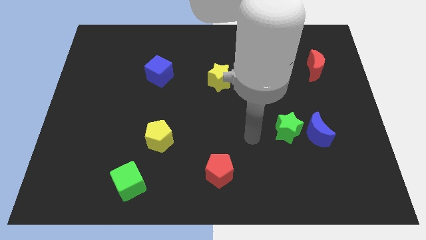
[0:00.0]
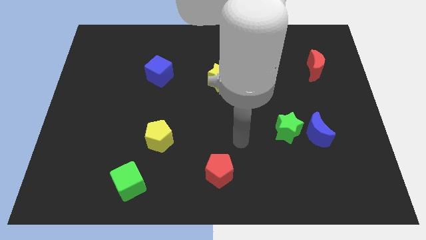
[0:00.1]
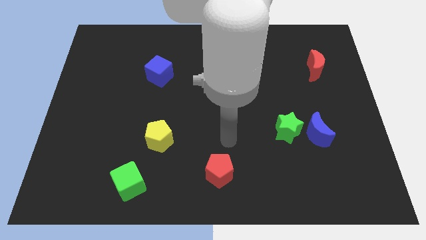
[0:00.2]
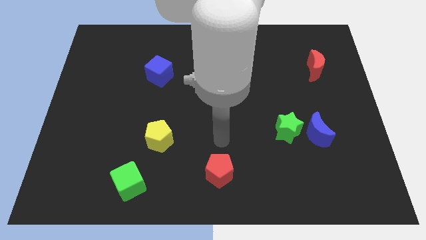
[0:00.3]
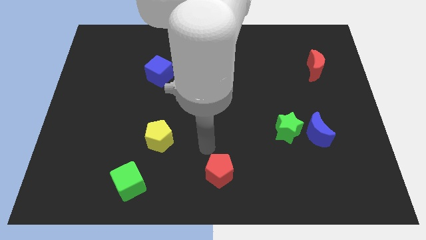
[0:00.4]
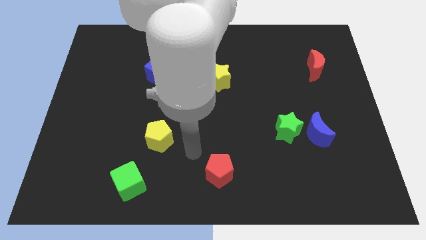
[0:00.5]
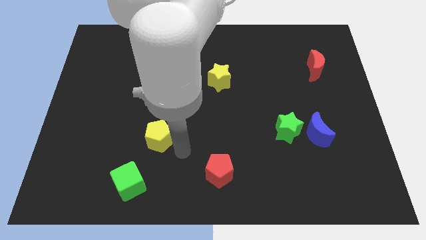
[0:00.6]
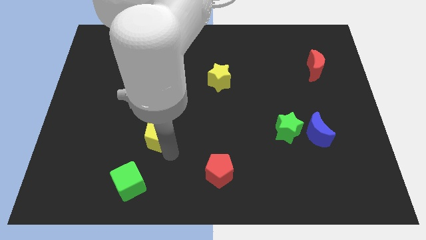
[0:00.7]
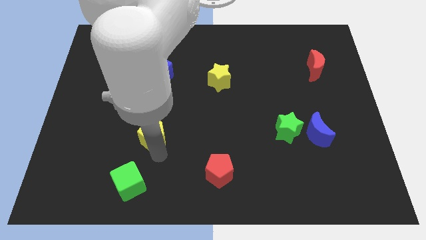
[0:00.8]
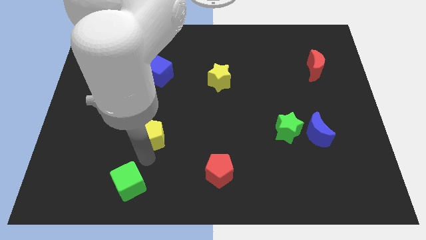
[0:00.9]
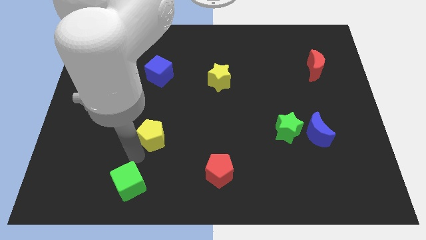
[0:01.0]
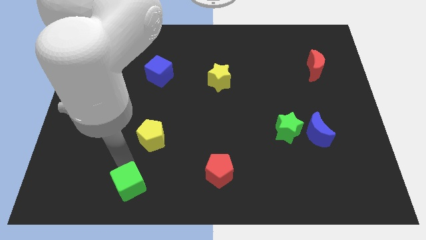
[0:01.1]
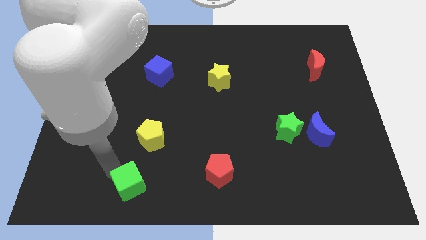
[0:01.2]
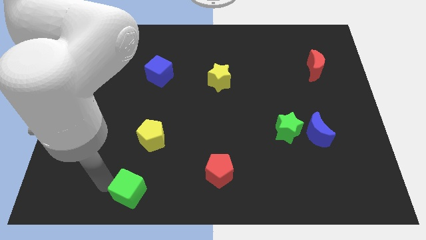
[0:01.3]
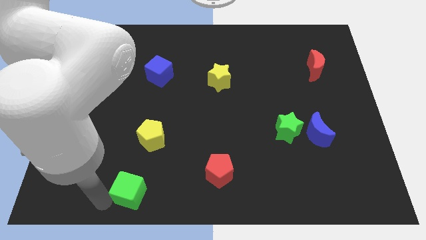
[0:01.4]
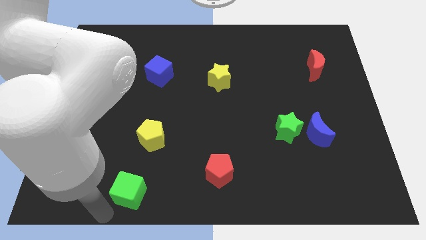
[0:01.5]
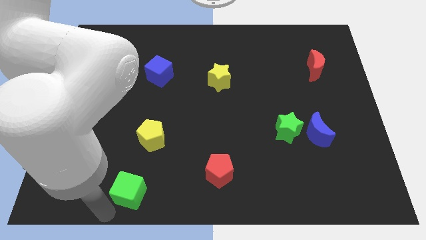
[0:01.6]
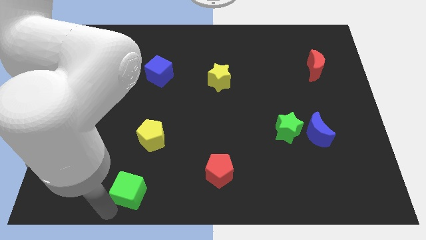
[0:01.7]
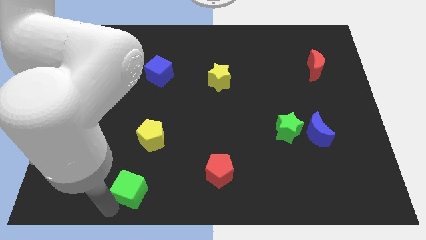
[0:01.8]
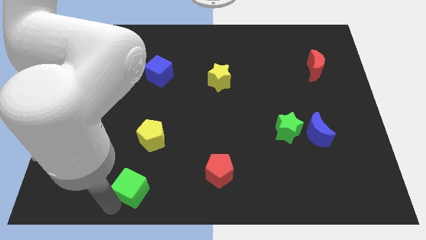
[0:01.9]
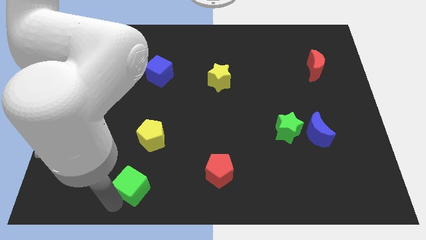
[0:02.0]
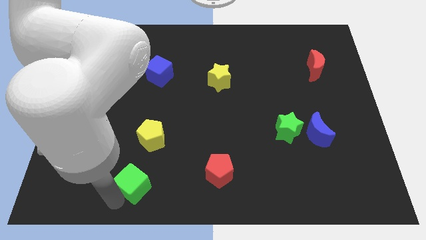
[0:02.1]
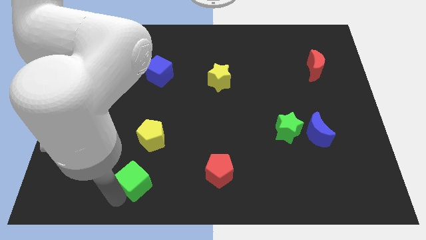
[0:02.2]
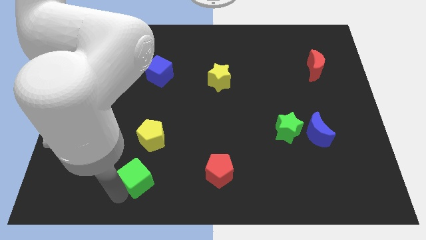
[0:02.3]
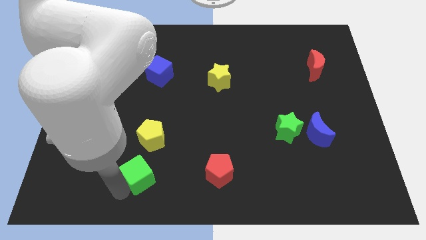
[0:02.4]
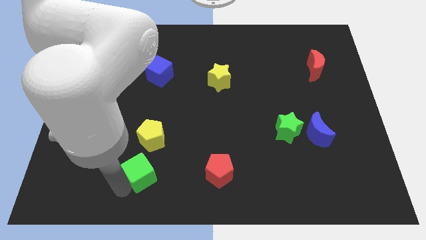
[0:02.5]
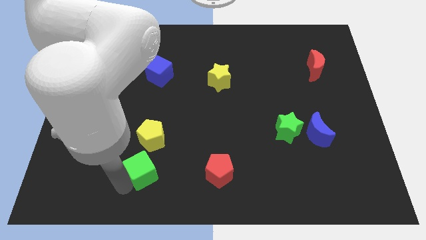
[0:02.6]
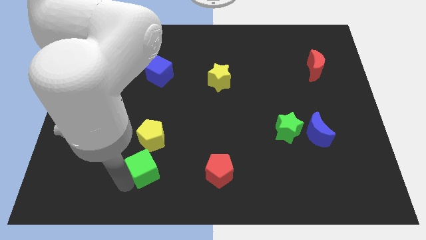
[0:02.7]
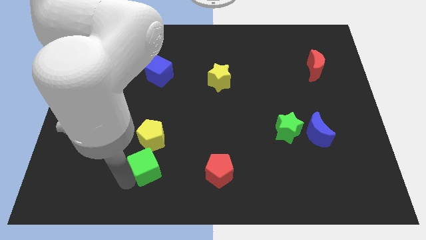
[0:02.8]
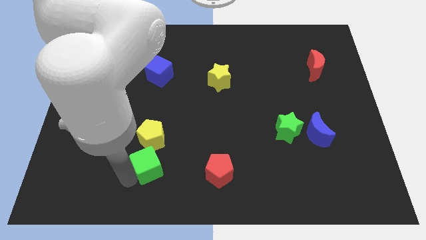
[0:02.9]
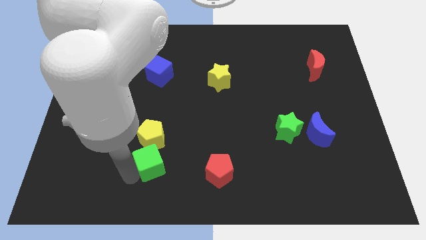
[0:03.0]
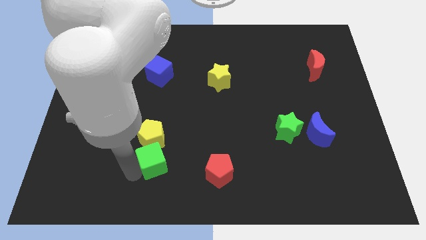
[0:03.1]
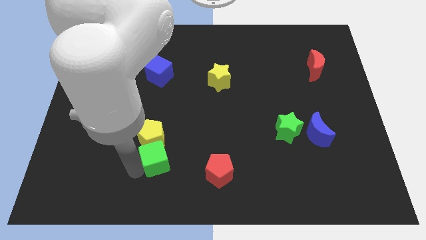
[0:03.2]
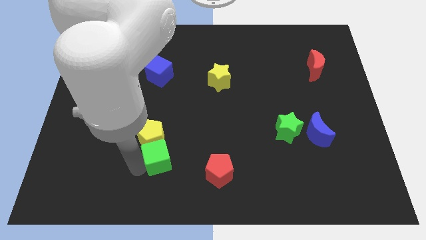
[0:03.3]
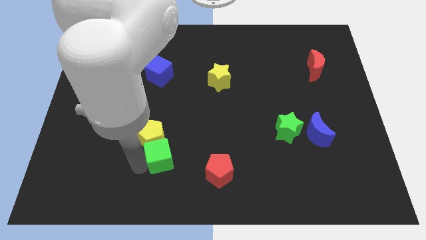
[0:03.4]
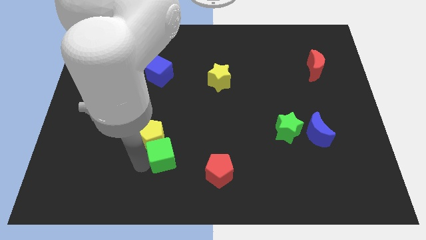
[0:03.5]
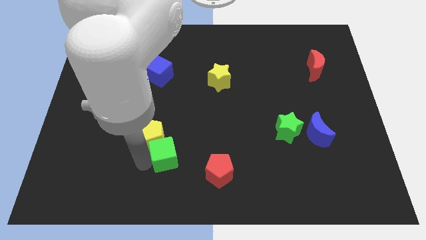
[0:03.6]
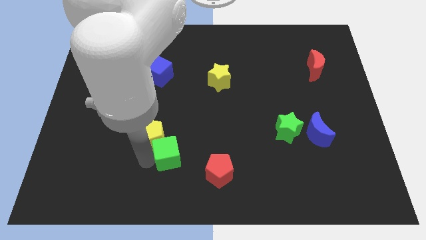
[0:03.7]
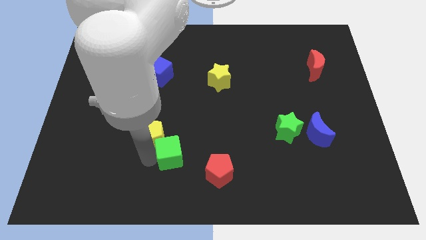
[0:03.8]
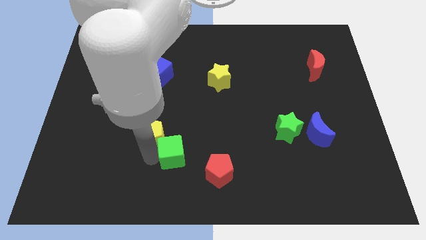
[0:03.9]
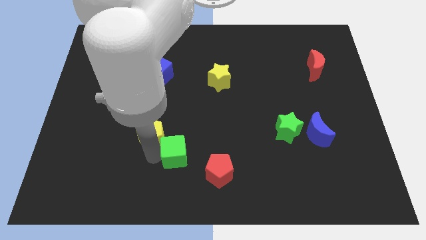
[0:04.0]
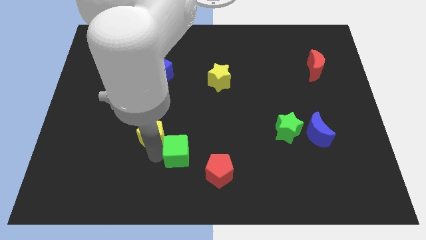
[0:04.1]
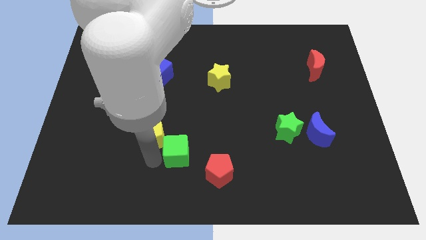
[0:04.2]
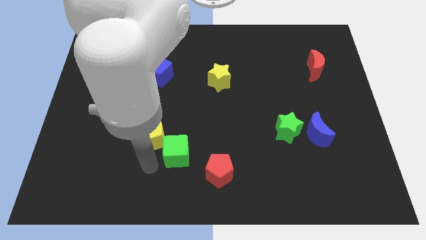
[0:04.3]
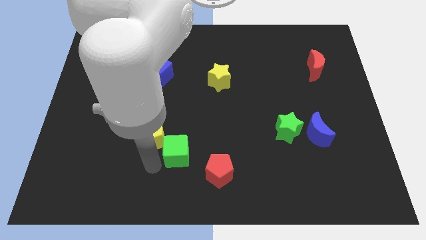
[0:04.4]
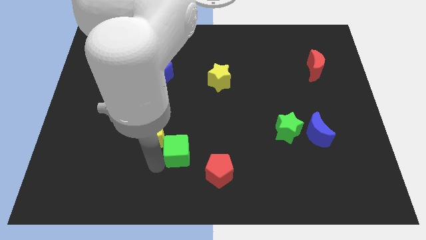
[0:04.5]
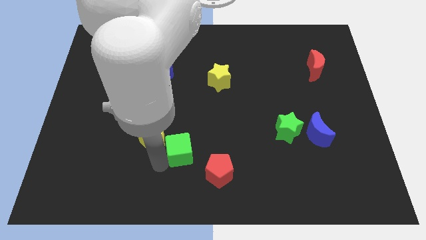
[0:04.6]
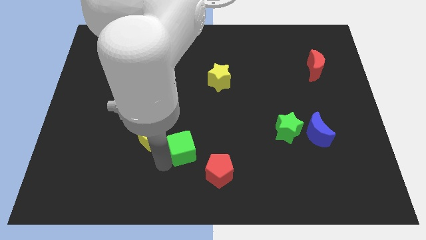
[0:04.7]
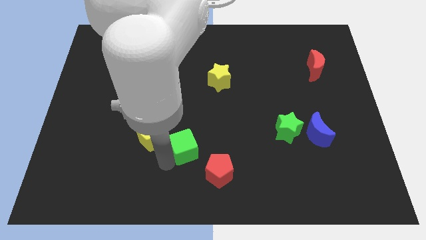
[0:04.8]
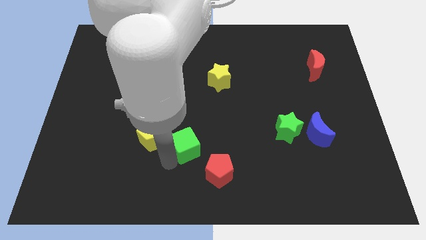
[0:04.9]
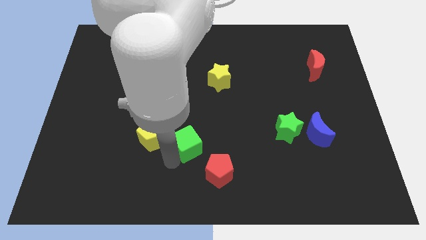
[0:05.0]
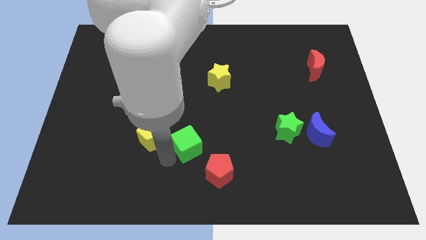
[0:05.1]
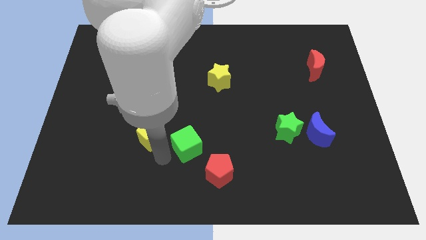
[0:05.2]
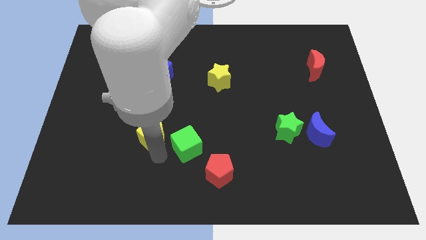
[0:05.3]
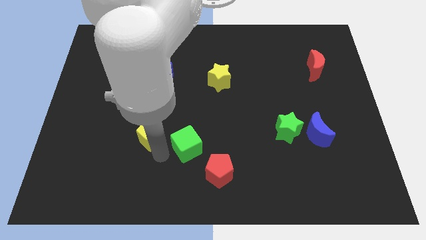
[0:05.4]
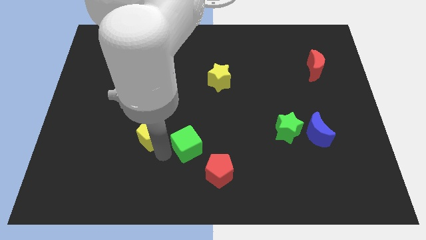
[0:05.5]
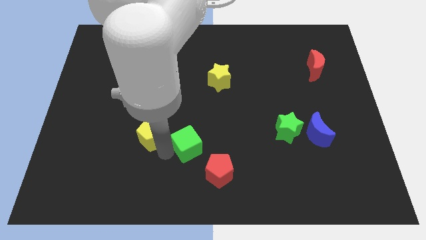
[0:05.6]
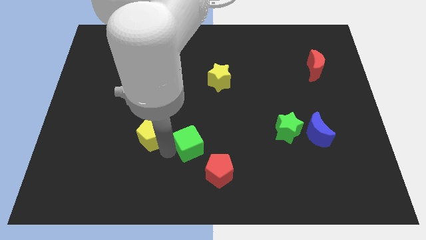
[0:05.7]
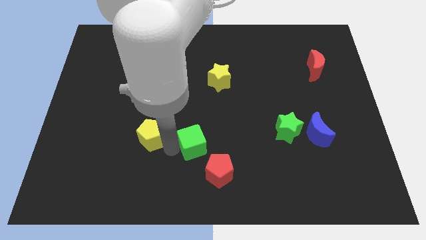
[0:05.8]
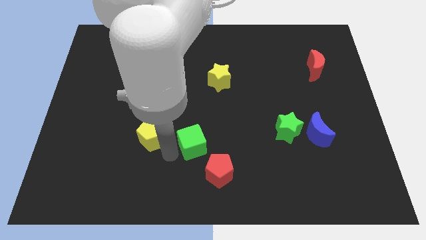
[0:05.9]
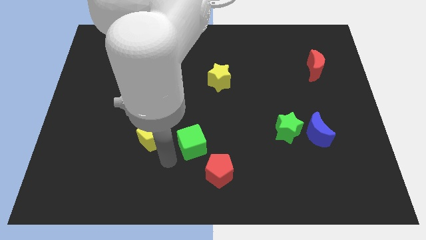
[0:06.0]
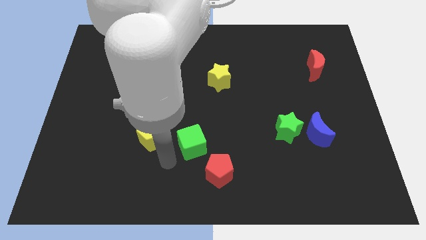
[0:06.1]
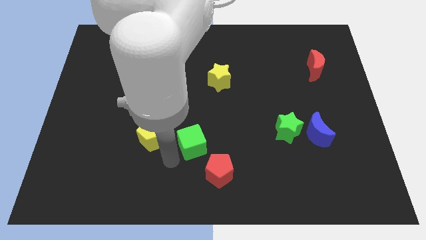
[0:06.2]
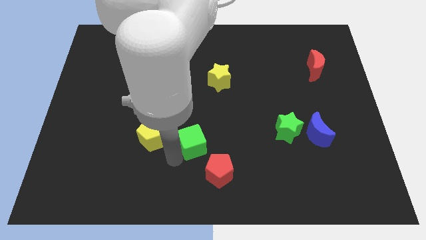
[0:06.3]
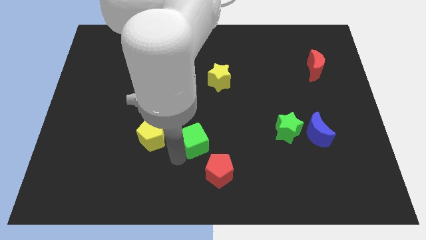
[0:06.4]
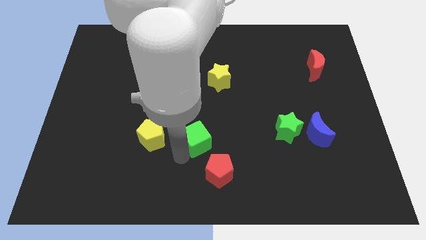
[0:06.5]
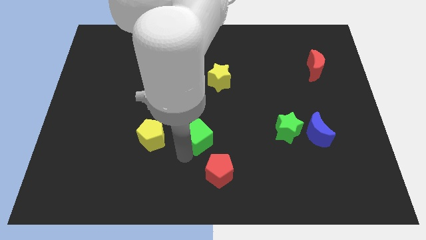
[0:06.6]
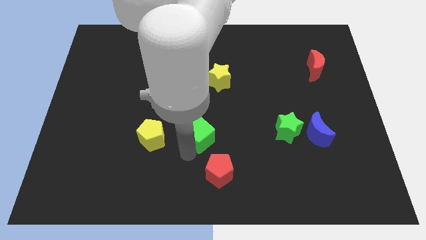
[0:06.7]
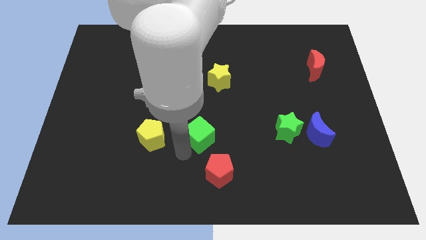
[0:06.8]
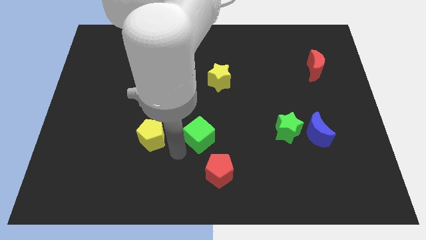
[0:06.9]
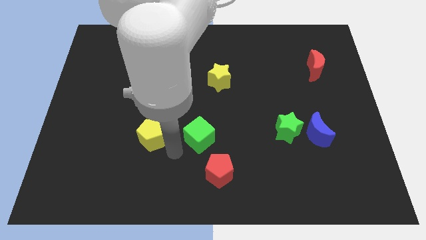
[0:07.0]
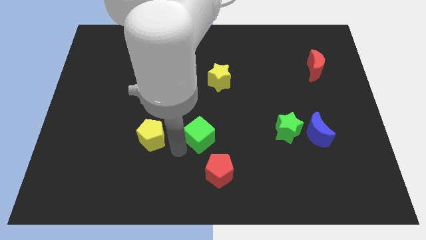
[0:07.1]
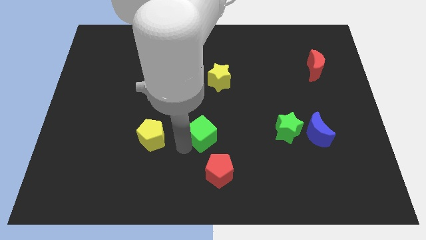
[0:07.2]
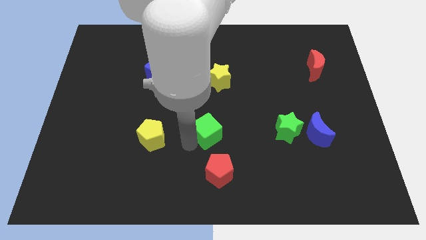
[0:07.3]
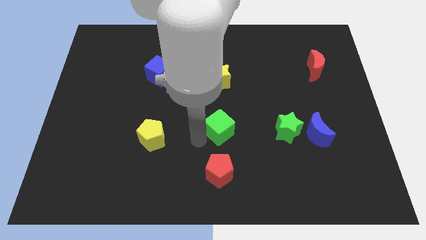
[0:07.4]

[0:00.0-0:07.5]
move the green cube upwards and right

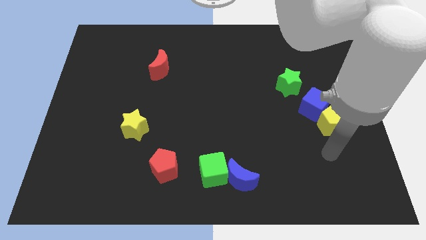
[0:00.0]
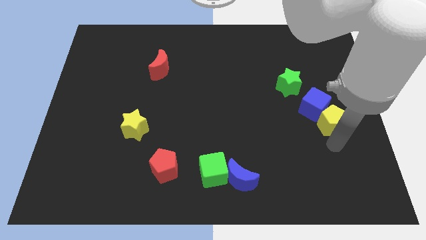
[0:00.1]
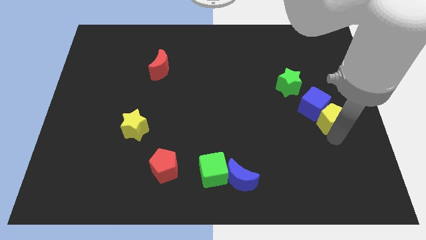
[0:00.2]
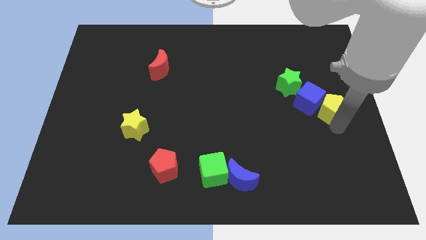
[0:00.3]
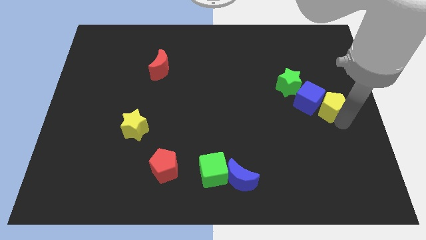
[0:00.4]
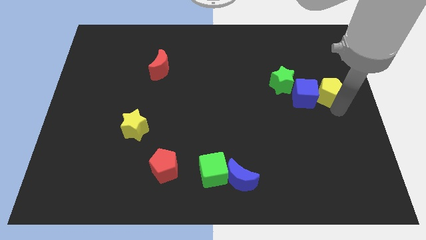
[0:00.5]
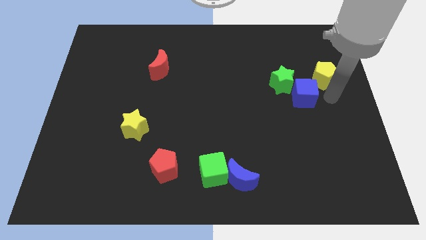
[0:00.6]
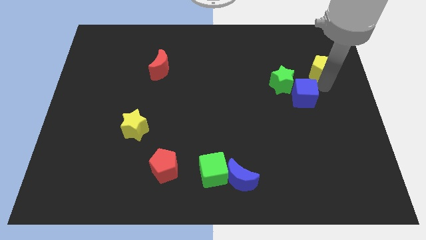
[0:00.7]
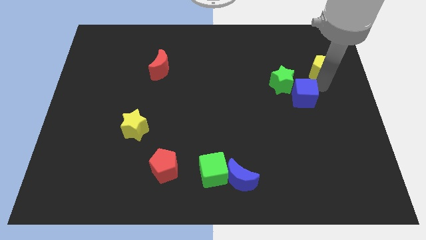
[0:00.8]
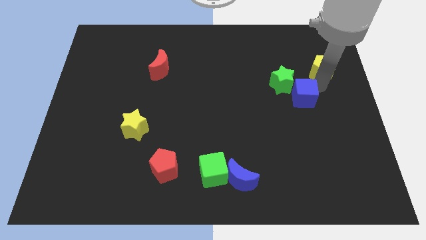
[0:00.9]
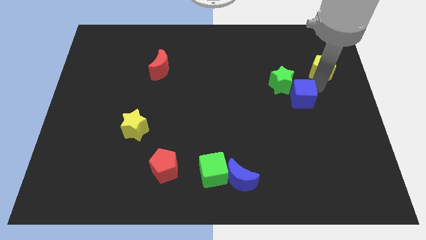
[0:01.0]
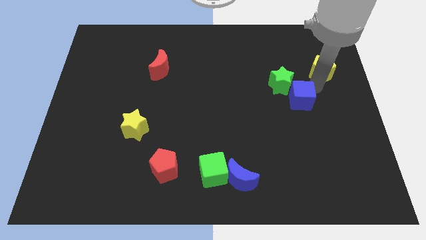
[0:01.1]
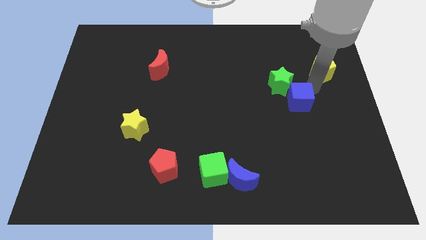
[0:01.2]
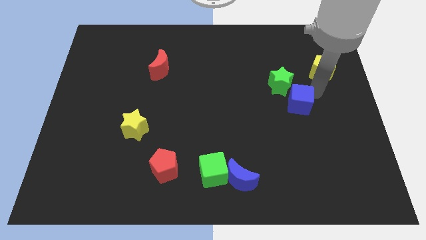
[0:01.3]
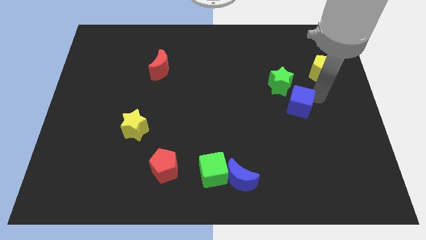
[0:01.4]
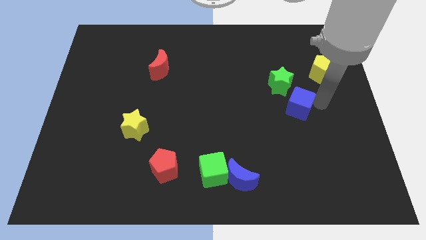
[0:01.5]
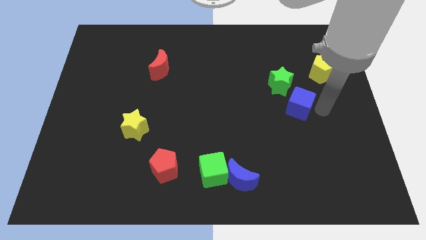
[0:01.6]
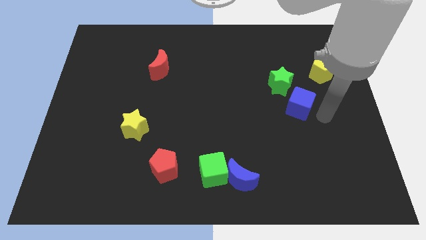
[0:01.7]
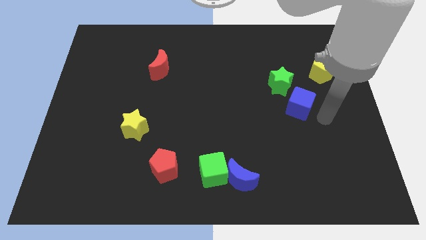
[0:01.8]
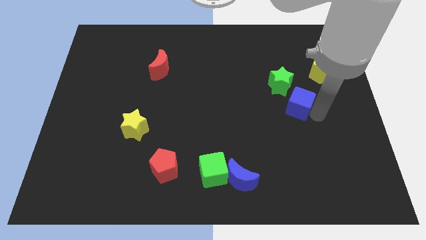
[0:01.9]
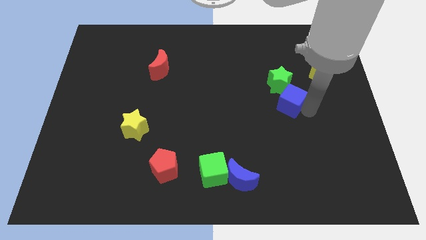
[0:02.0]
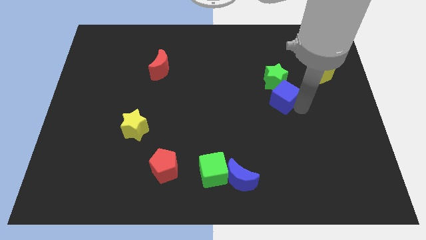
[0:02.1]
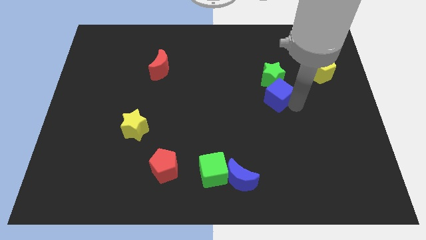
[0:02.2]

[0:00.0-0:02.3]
slightly move the blue cube up and to the left
